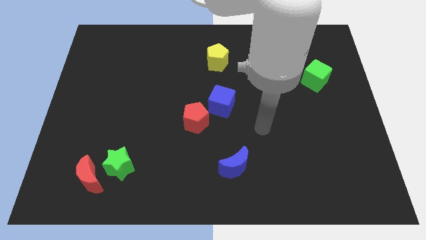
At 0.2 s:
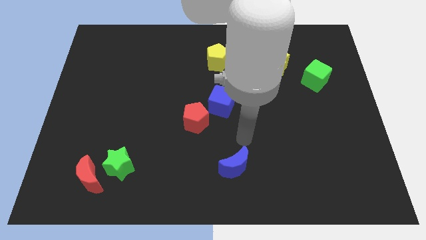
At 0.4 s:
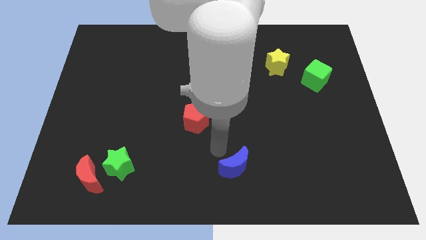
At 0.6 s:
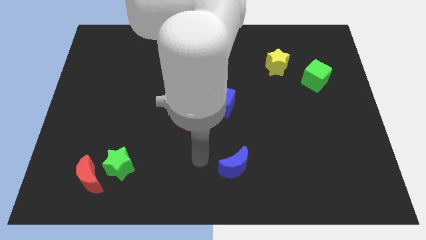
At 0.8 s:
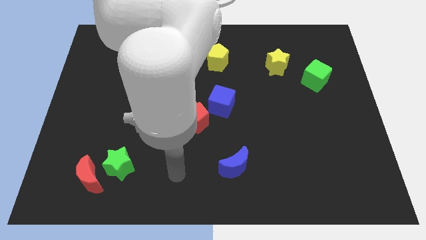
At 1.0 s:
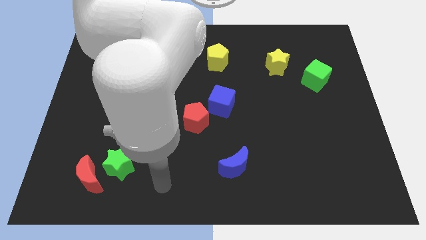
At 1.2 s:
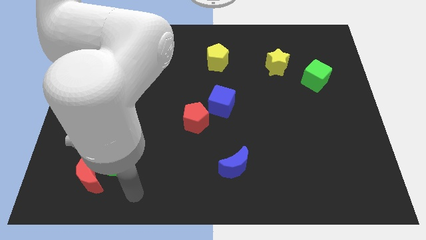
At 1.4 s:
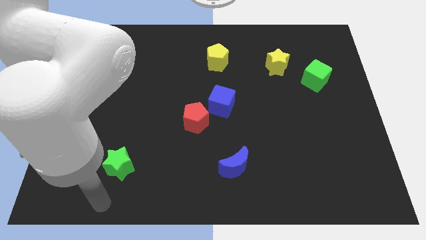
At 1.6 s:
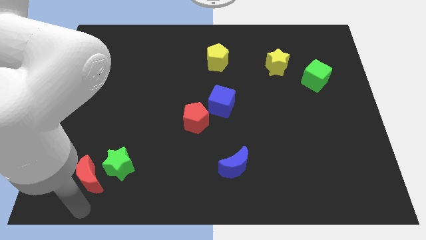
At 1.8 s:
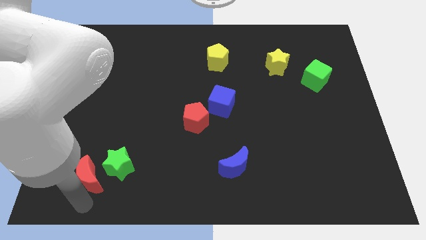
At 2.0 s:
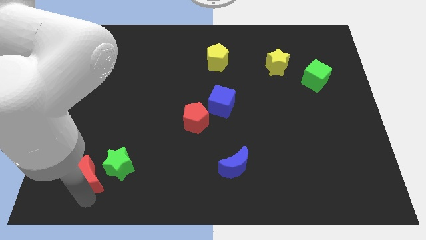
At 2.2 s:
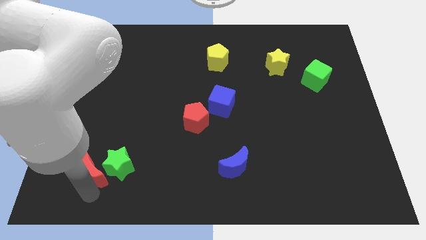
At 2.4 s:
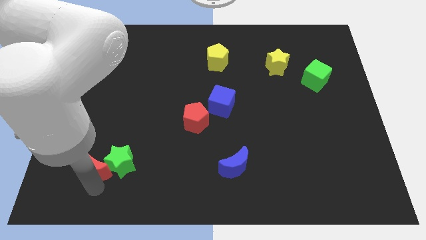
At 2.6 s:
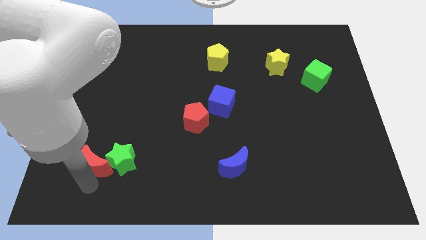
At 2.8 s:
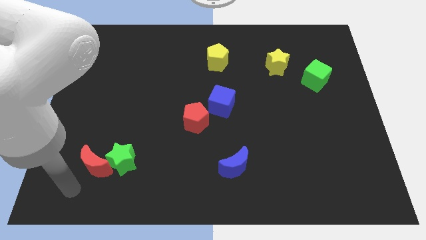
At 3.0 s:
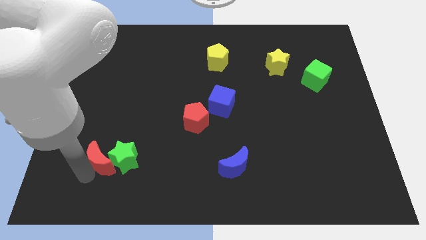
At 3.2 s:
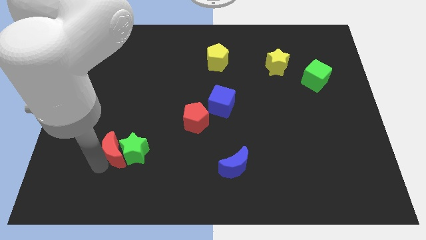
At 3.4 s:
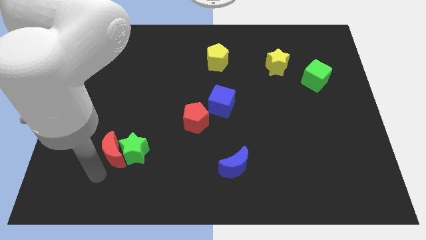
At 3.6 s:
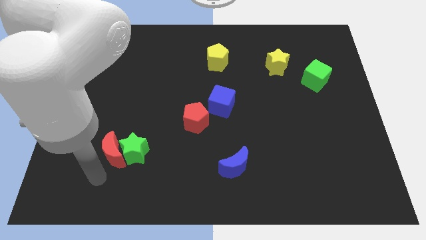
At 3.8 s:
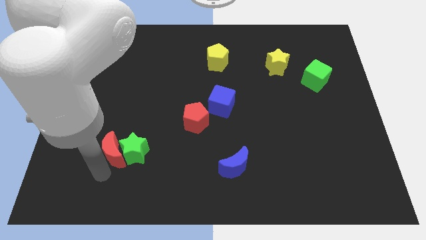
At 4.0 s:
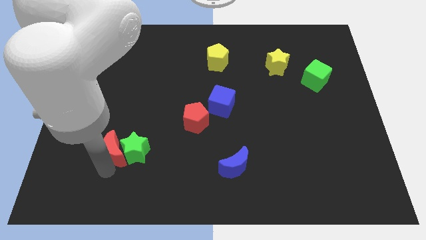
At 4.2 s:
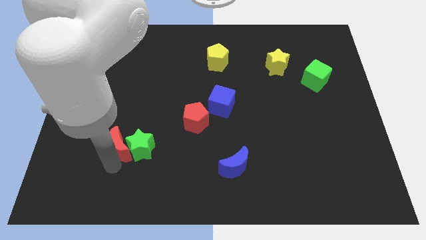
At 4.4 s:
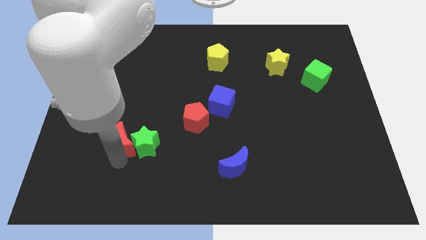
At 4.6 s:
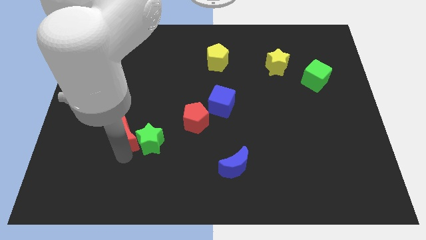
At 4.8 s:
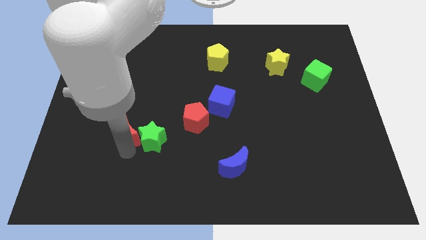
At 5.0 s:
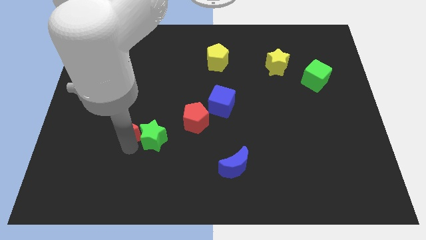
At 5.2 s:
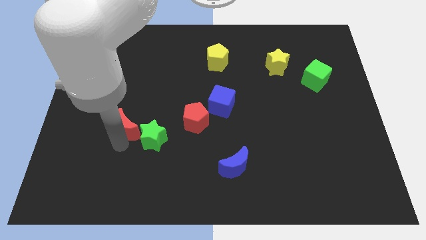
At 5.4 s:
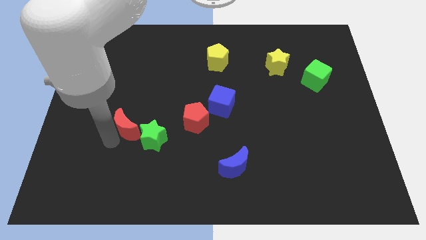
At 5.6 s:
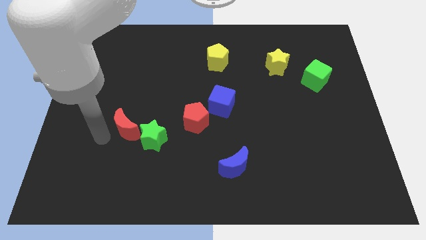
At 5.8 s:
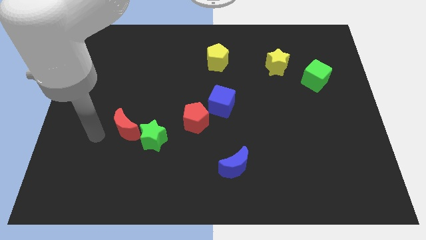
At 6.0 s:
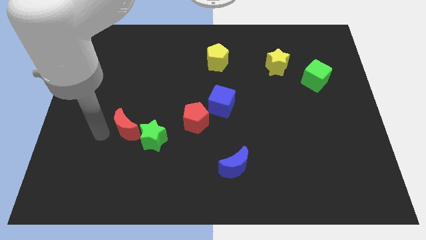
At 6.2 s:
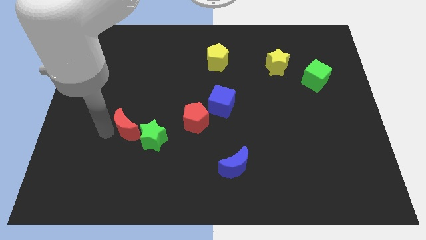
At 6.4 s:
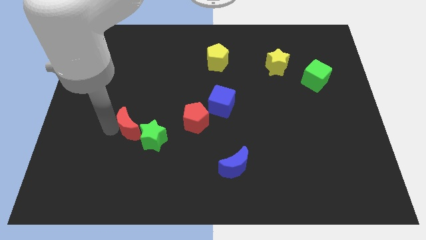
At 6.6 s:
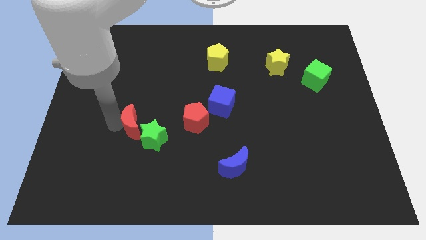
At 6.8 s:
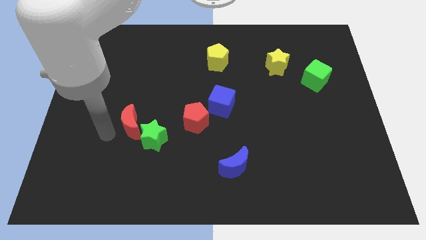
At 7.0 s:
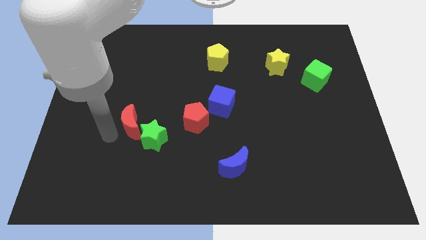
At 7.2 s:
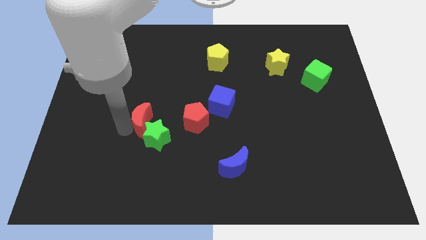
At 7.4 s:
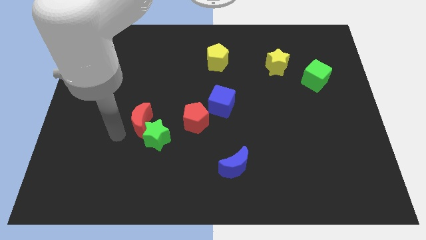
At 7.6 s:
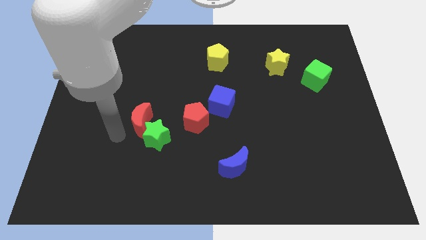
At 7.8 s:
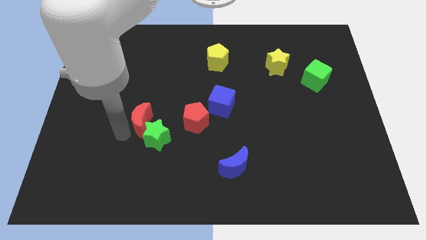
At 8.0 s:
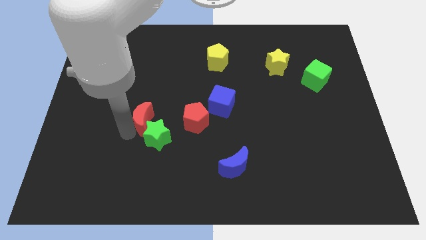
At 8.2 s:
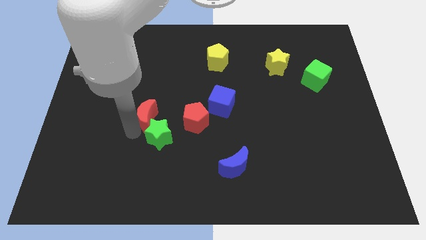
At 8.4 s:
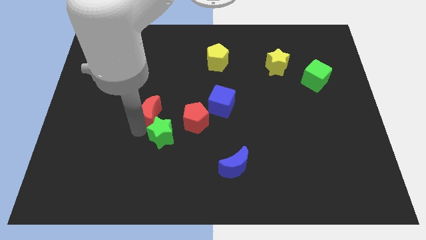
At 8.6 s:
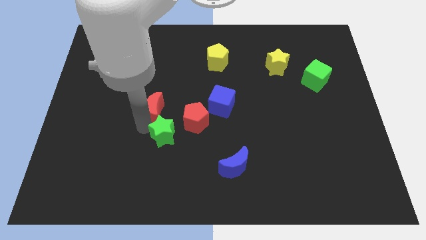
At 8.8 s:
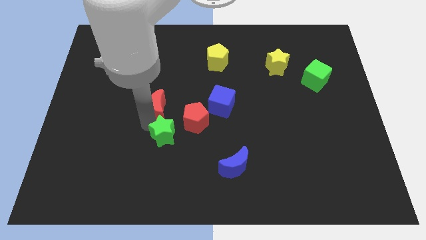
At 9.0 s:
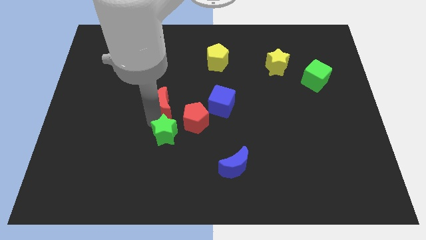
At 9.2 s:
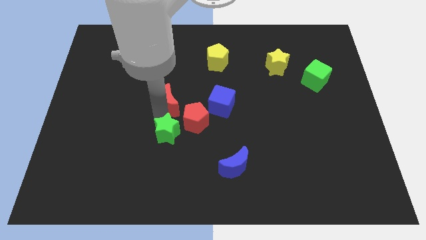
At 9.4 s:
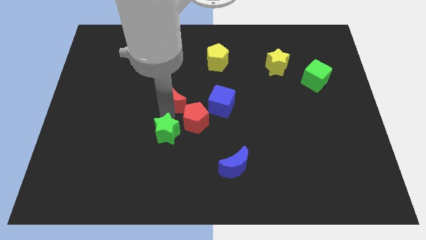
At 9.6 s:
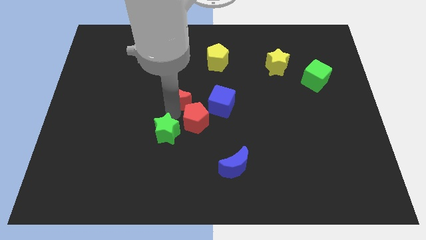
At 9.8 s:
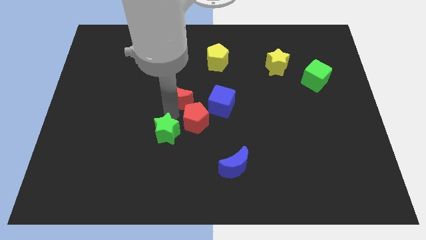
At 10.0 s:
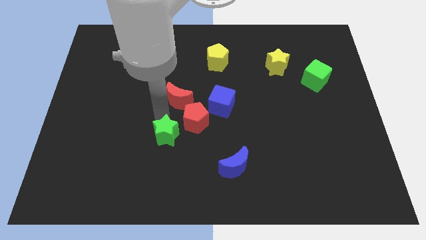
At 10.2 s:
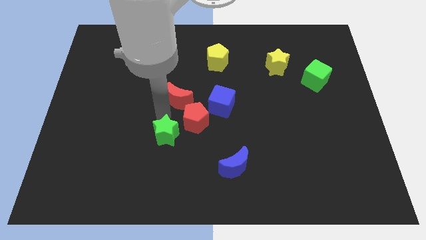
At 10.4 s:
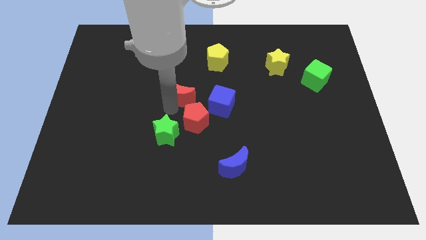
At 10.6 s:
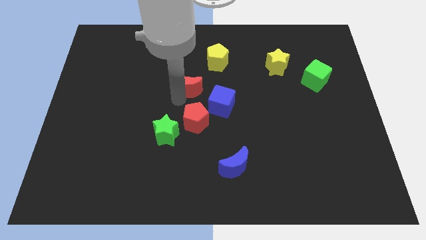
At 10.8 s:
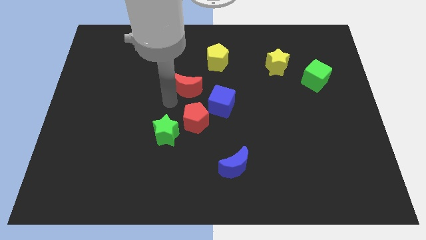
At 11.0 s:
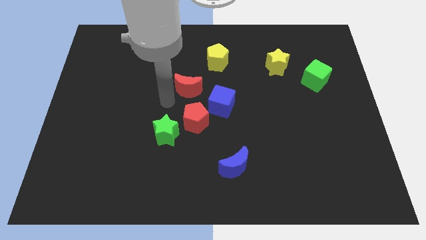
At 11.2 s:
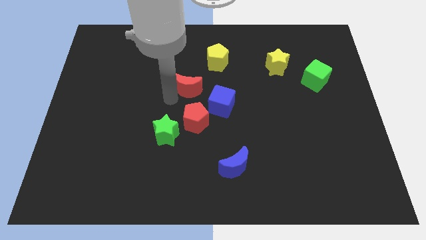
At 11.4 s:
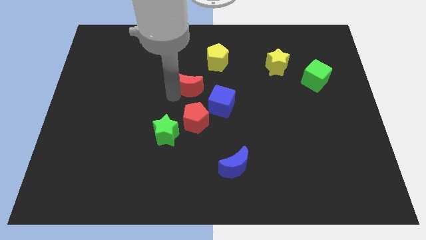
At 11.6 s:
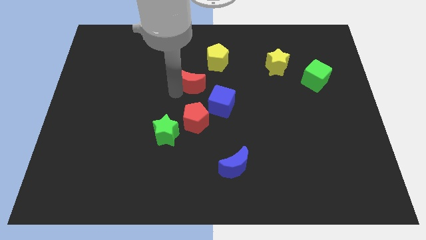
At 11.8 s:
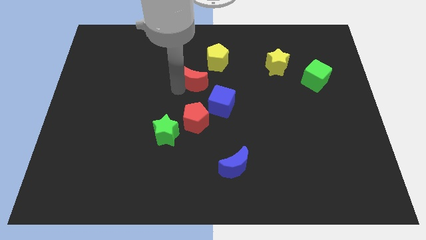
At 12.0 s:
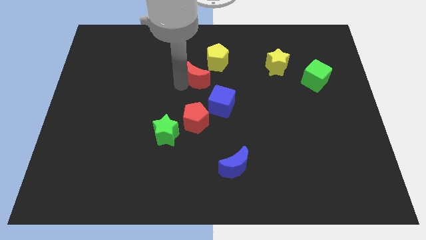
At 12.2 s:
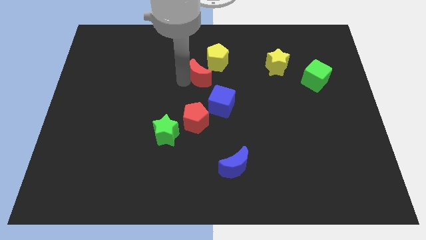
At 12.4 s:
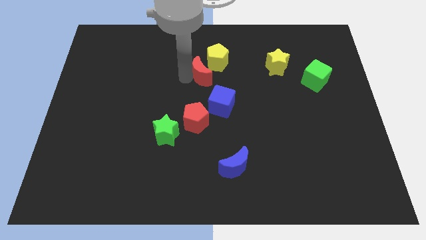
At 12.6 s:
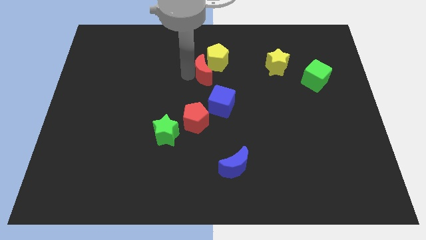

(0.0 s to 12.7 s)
move the red moon towards the yellow pentagon

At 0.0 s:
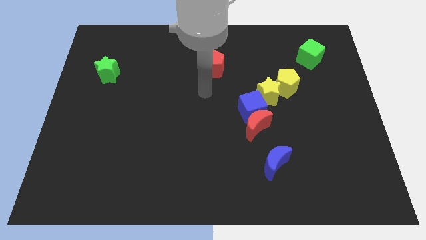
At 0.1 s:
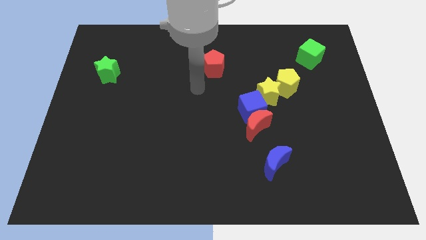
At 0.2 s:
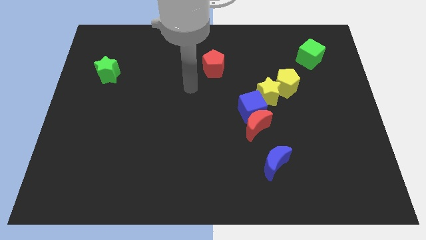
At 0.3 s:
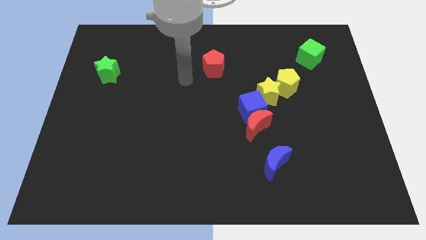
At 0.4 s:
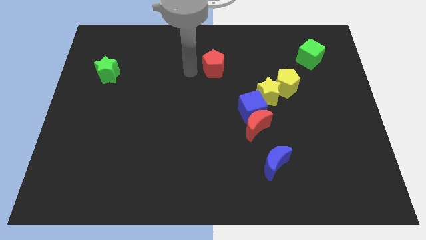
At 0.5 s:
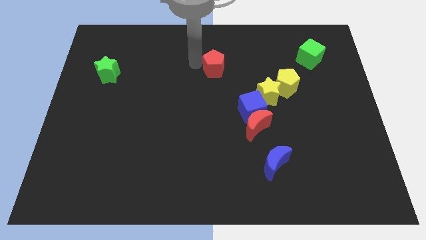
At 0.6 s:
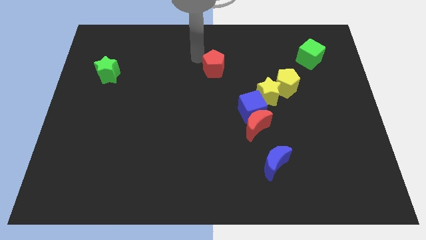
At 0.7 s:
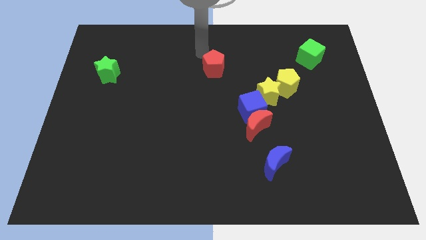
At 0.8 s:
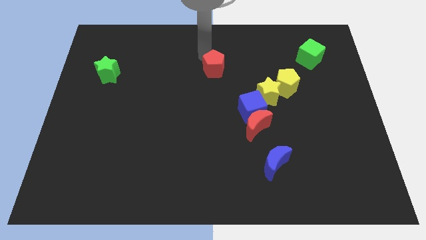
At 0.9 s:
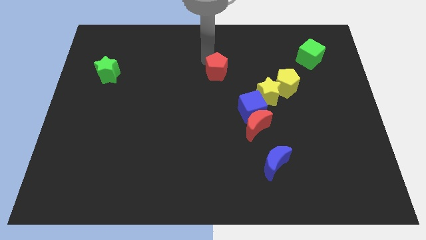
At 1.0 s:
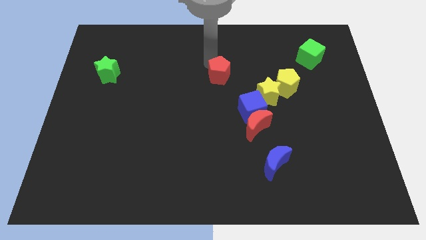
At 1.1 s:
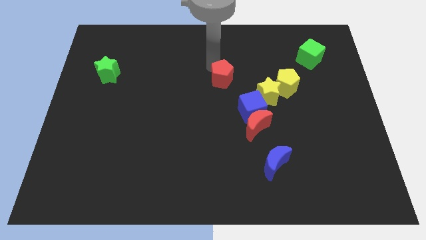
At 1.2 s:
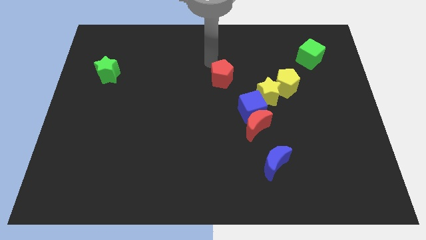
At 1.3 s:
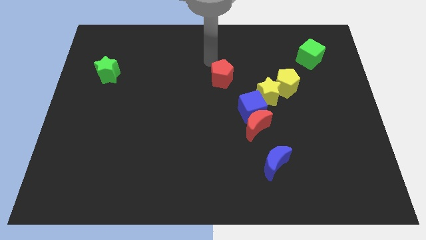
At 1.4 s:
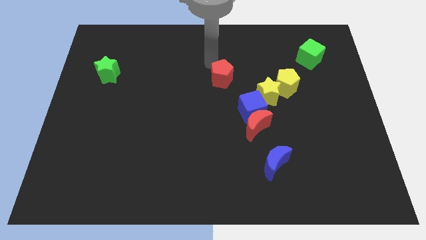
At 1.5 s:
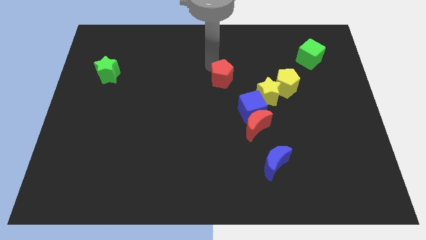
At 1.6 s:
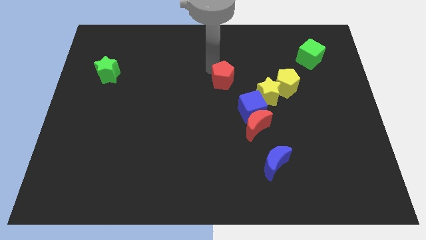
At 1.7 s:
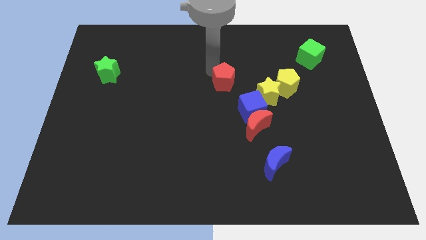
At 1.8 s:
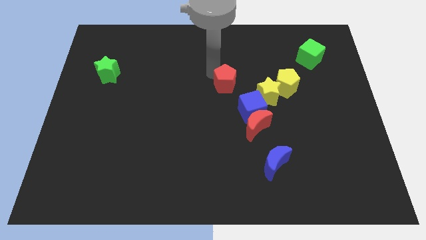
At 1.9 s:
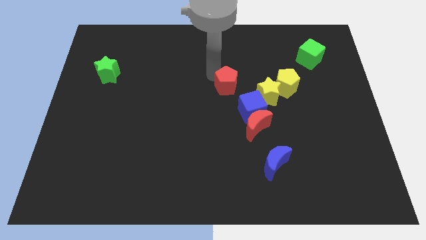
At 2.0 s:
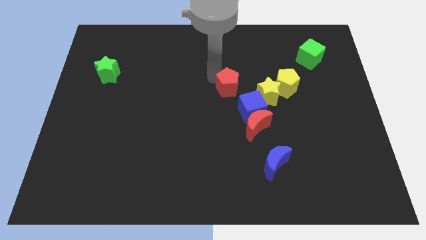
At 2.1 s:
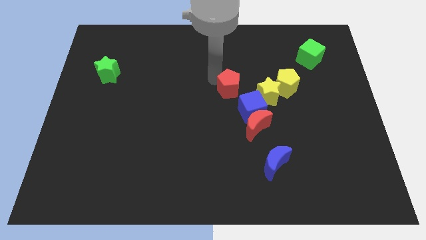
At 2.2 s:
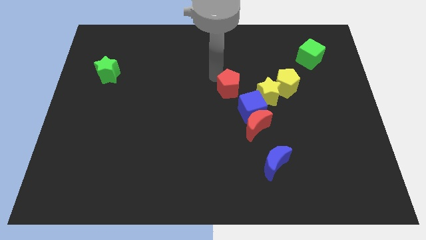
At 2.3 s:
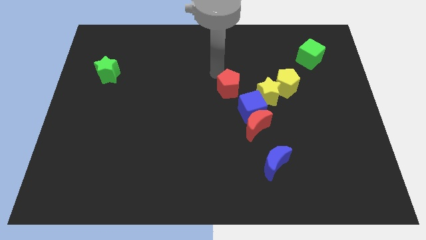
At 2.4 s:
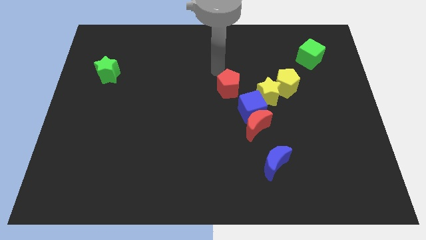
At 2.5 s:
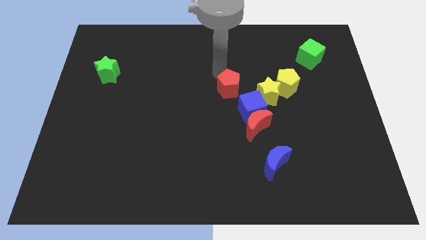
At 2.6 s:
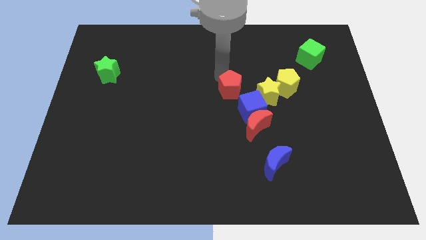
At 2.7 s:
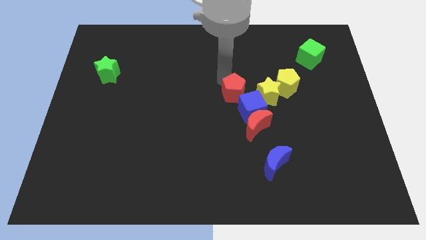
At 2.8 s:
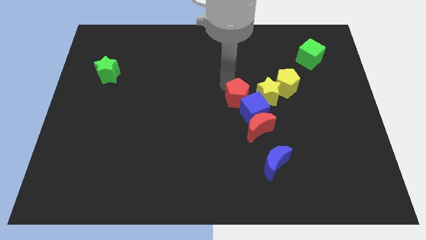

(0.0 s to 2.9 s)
slide the red pentagon towards the blue cube
